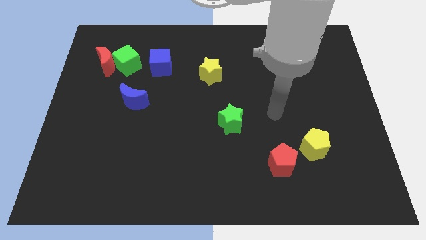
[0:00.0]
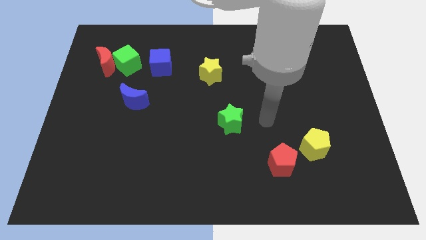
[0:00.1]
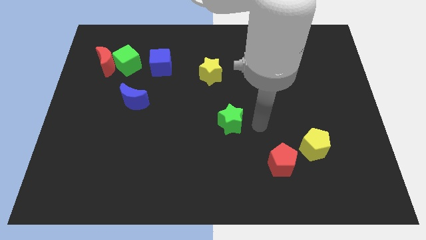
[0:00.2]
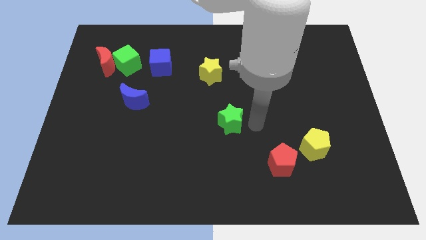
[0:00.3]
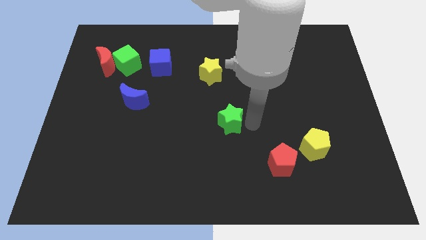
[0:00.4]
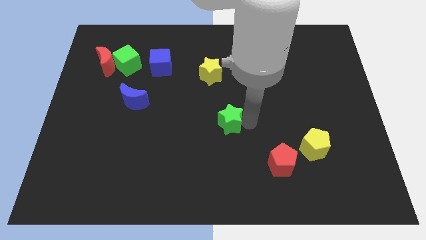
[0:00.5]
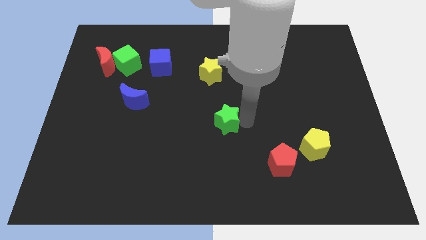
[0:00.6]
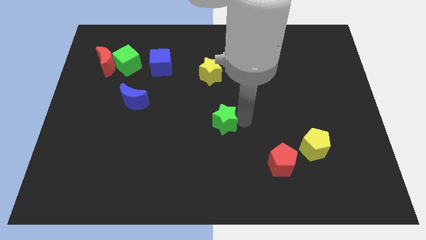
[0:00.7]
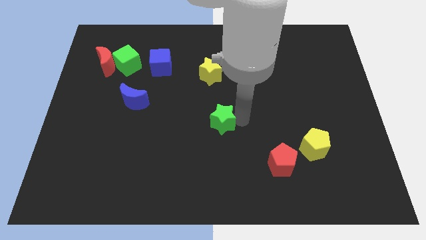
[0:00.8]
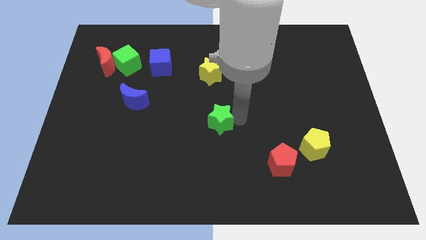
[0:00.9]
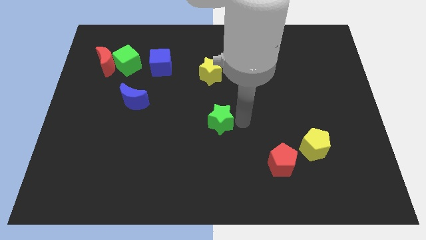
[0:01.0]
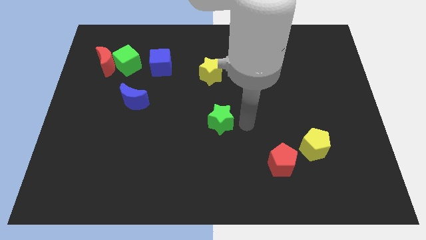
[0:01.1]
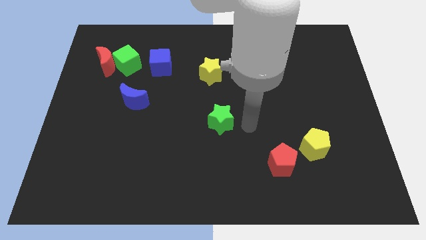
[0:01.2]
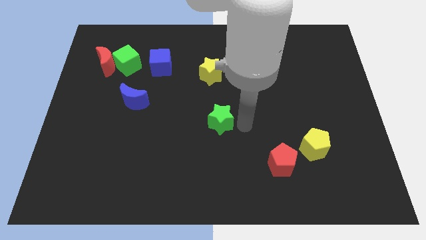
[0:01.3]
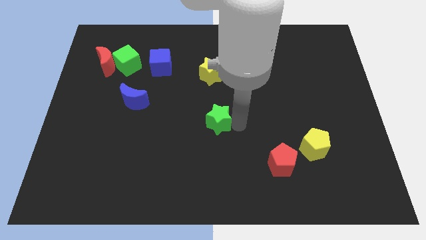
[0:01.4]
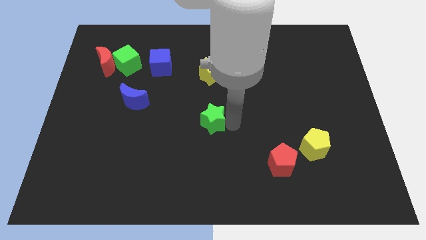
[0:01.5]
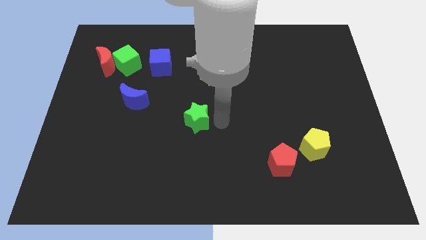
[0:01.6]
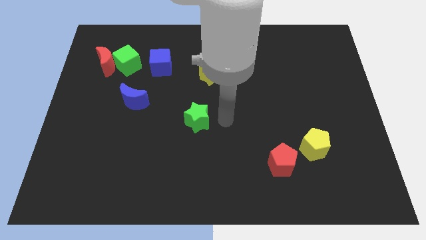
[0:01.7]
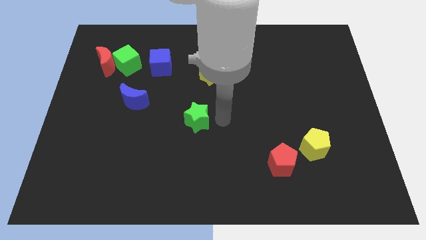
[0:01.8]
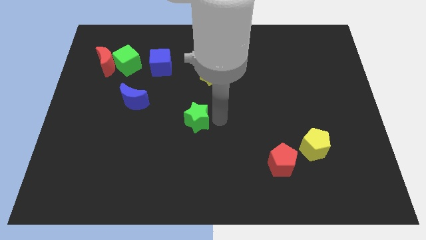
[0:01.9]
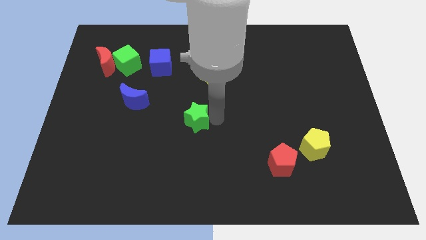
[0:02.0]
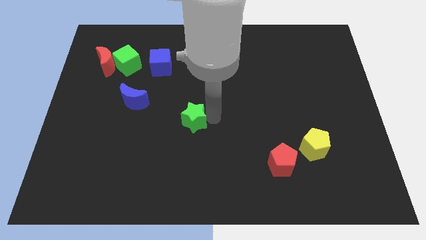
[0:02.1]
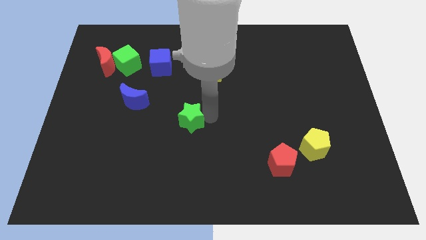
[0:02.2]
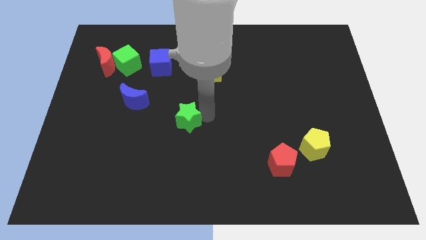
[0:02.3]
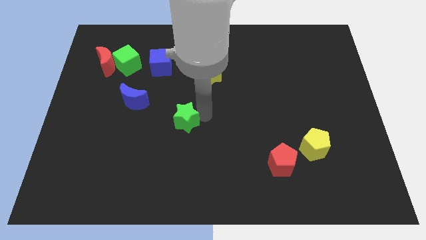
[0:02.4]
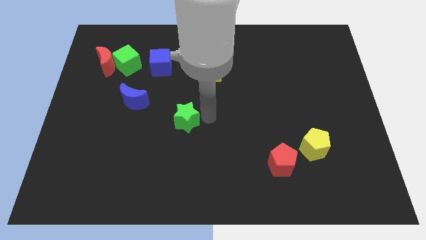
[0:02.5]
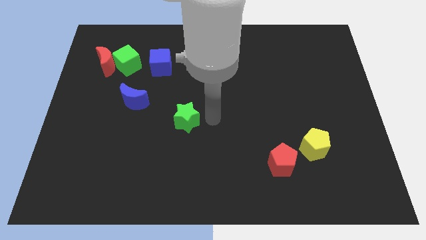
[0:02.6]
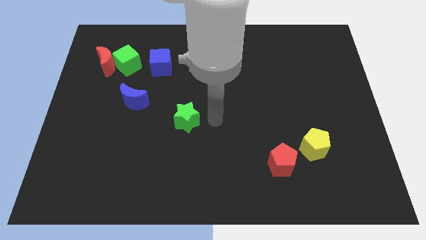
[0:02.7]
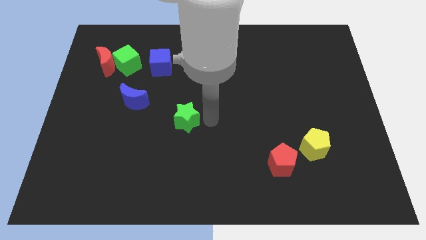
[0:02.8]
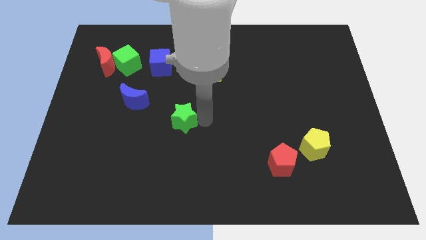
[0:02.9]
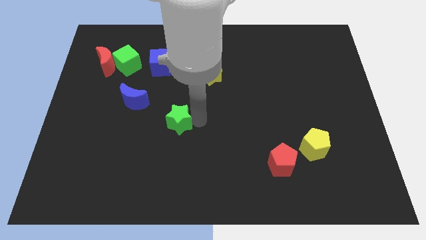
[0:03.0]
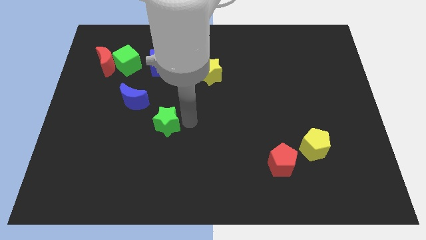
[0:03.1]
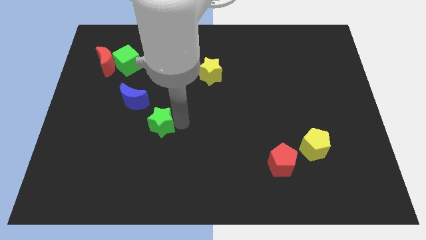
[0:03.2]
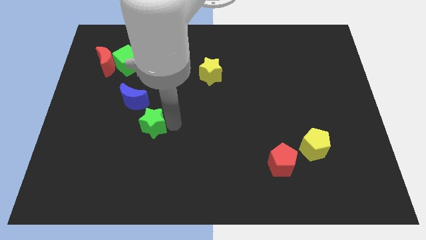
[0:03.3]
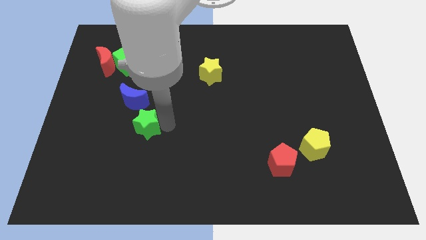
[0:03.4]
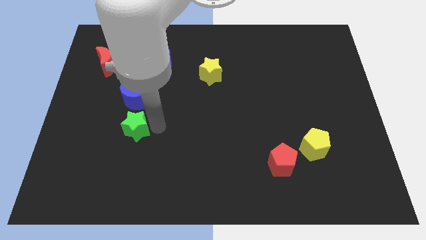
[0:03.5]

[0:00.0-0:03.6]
move the green star to the left

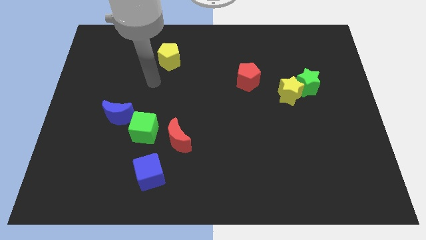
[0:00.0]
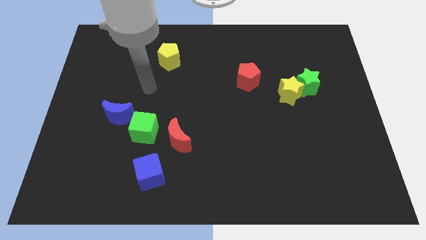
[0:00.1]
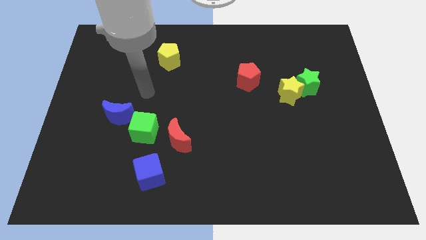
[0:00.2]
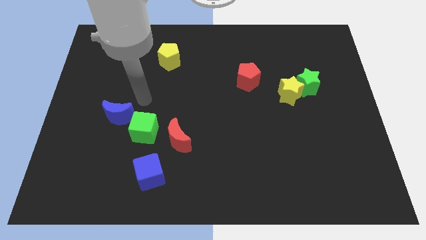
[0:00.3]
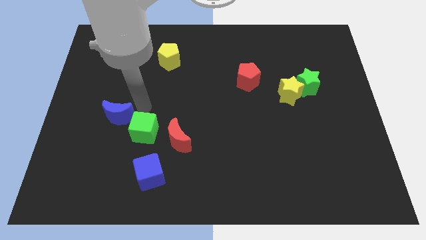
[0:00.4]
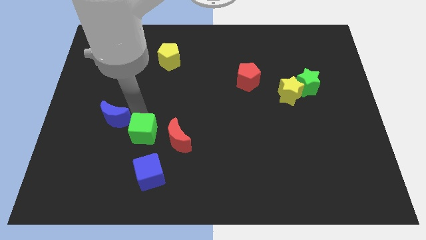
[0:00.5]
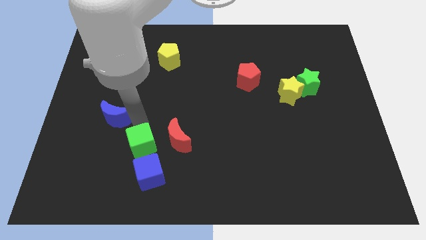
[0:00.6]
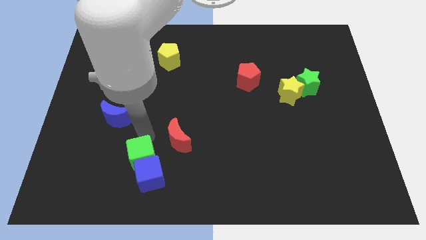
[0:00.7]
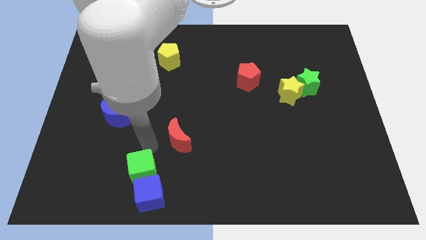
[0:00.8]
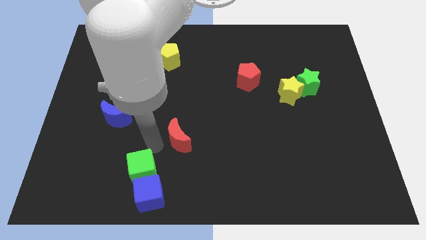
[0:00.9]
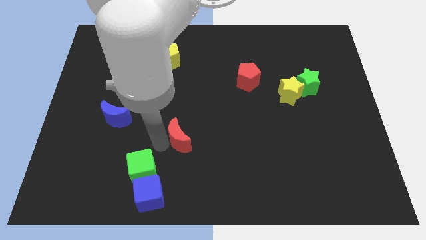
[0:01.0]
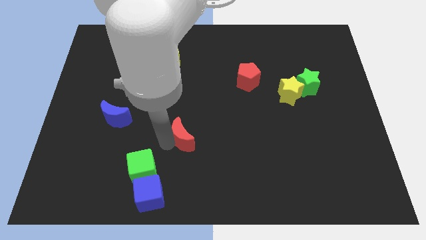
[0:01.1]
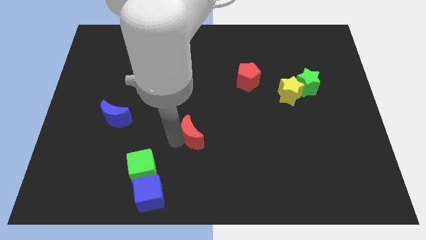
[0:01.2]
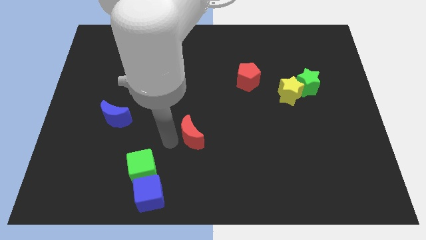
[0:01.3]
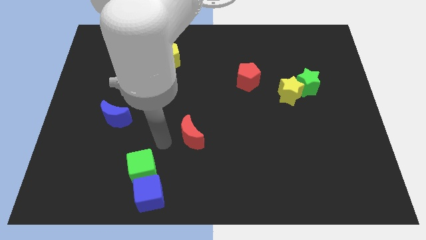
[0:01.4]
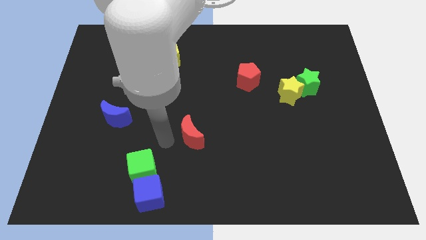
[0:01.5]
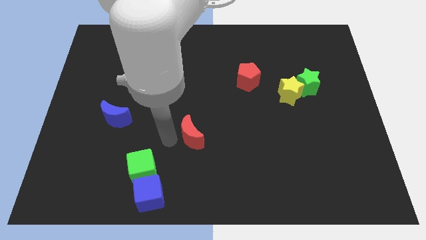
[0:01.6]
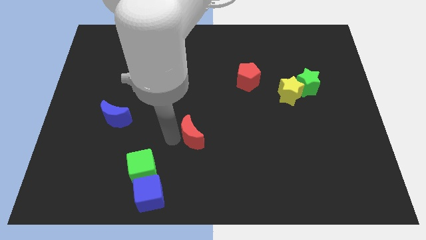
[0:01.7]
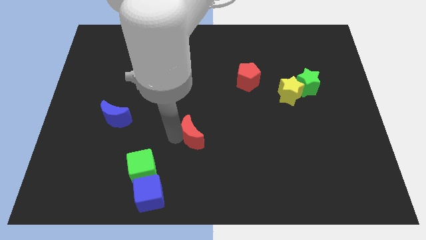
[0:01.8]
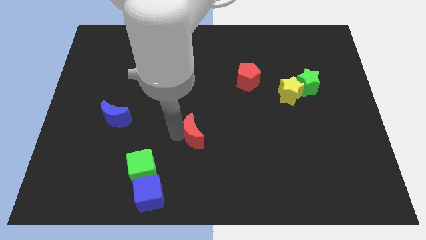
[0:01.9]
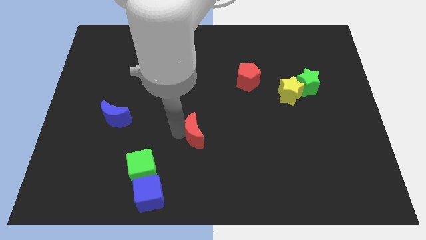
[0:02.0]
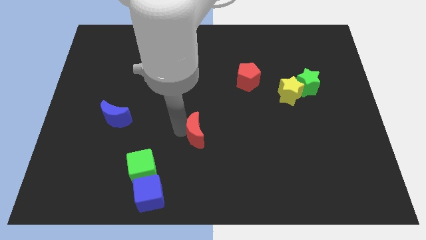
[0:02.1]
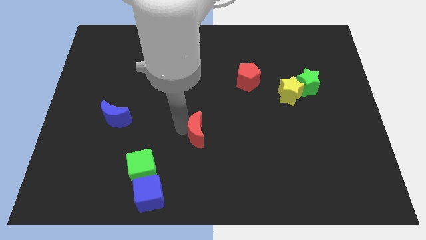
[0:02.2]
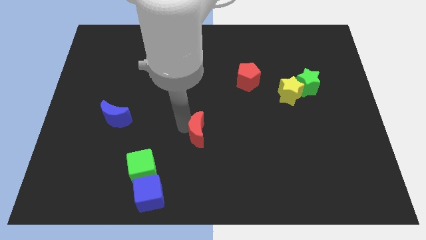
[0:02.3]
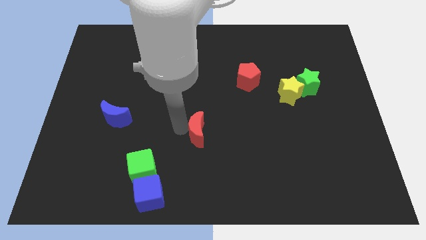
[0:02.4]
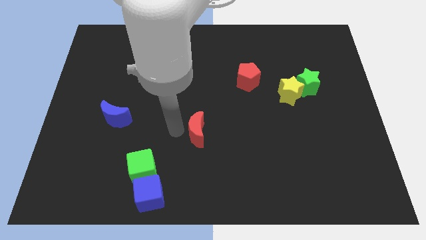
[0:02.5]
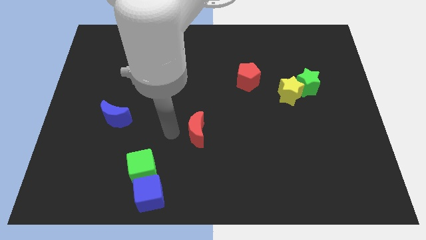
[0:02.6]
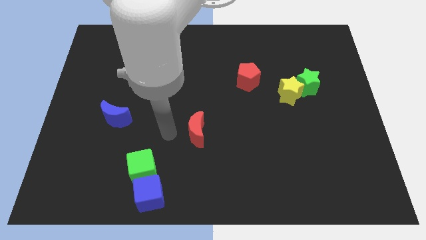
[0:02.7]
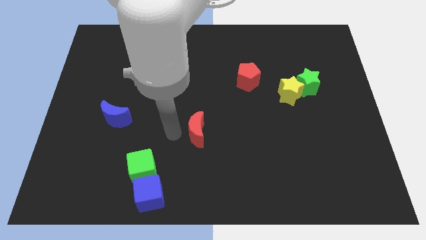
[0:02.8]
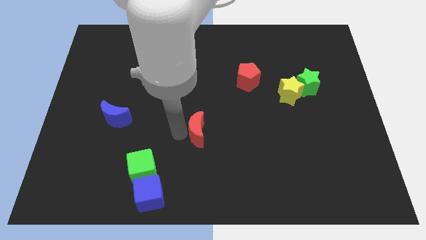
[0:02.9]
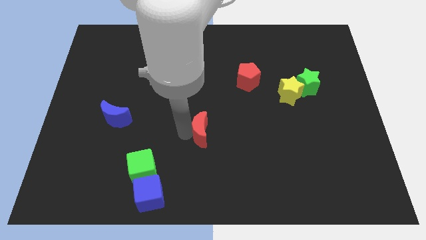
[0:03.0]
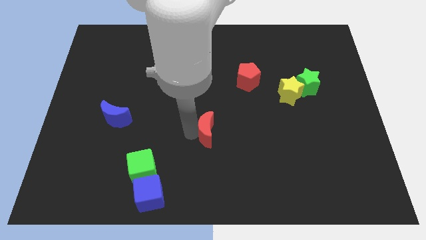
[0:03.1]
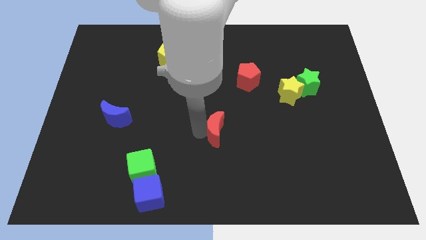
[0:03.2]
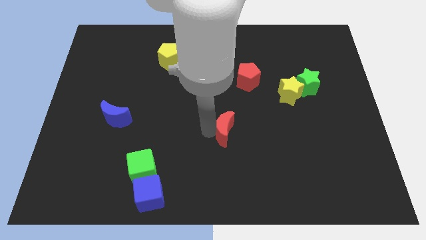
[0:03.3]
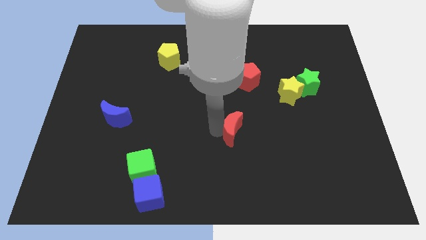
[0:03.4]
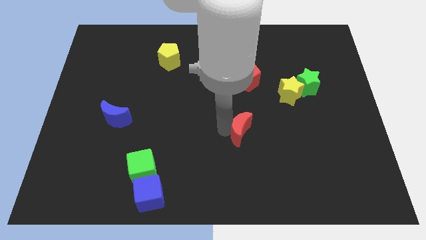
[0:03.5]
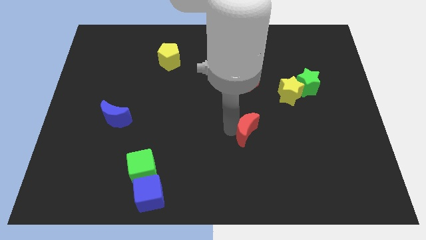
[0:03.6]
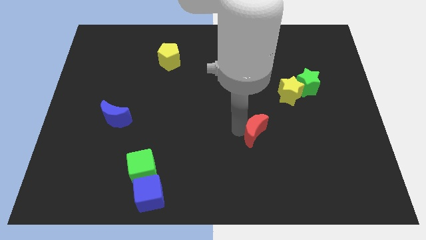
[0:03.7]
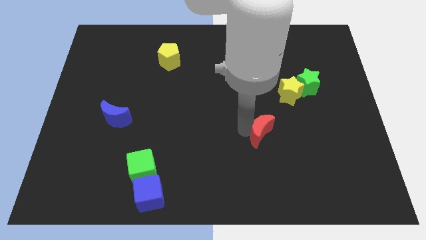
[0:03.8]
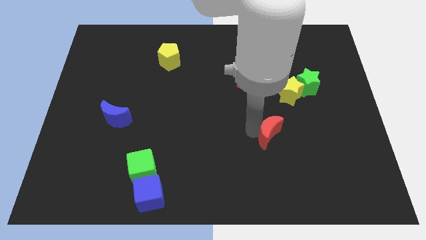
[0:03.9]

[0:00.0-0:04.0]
slide the red moon to the right

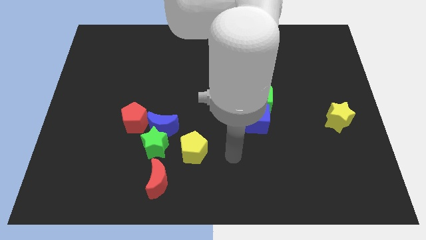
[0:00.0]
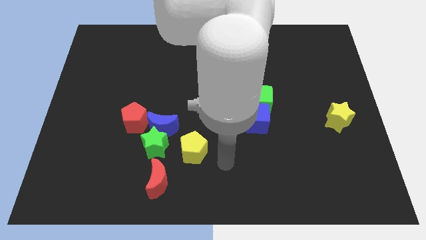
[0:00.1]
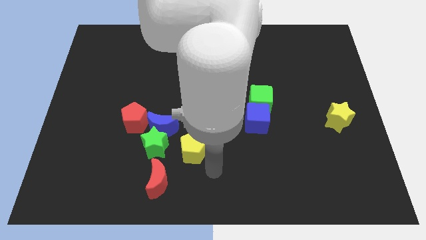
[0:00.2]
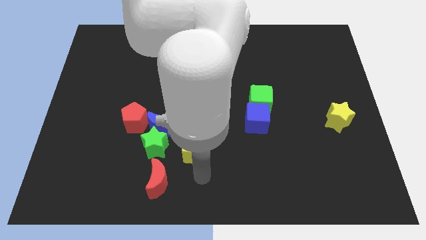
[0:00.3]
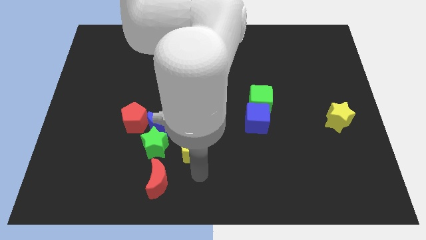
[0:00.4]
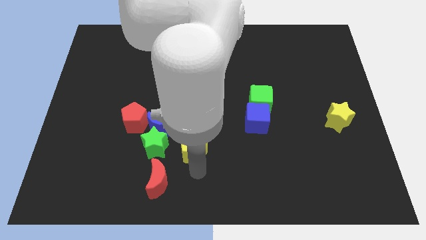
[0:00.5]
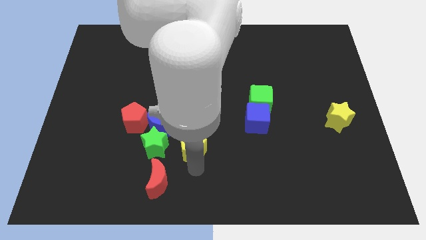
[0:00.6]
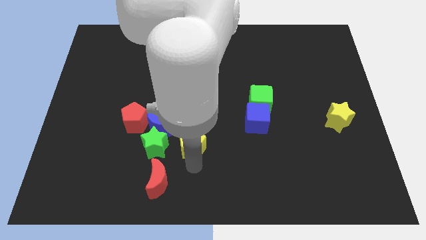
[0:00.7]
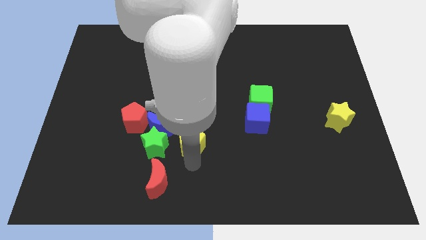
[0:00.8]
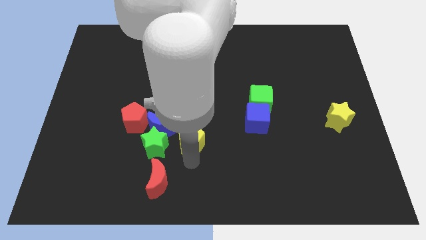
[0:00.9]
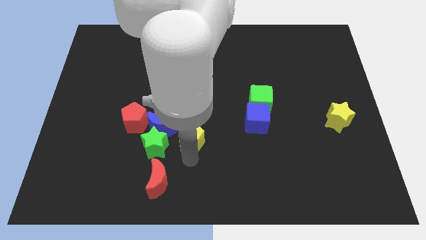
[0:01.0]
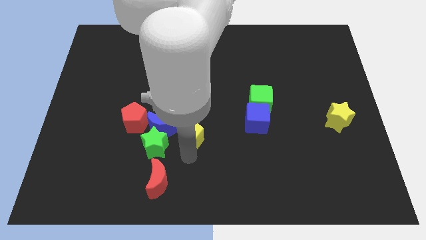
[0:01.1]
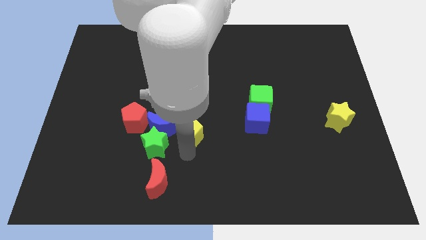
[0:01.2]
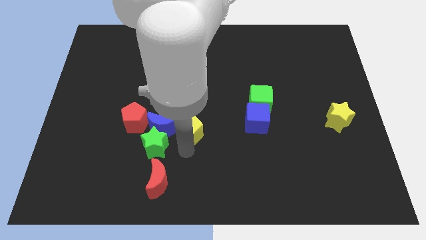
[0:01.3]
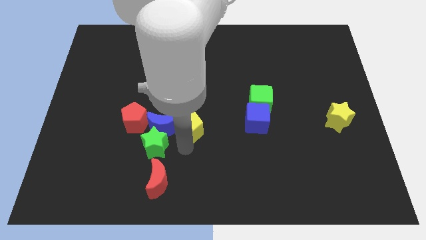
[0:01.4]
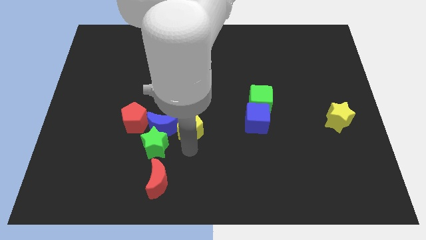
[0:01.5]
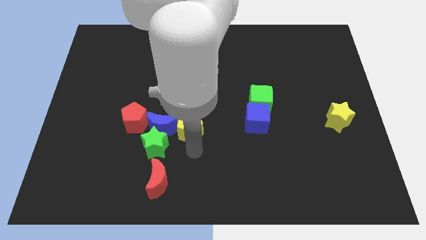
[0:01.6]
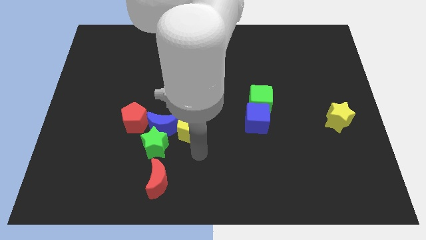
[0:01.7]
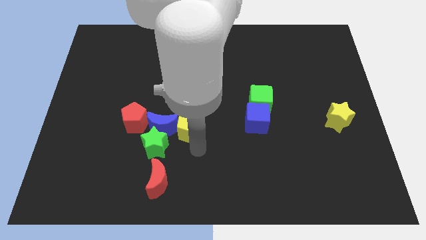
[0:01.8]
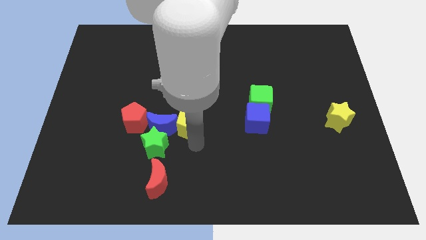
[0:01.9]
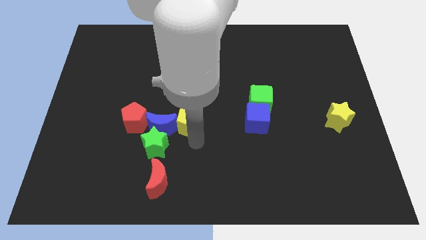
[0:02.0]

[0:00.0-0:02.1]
slide the yellow pentagon a little upwards
